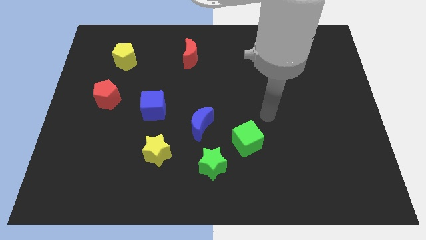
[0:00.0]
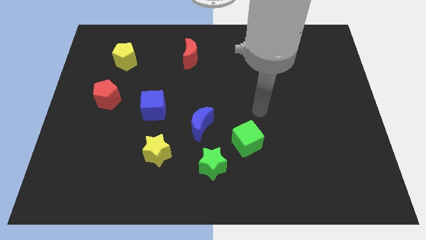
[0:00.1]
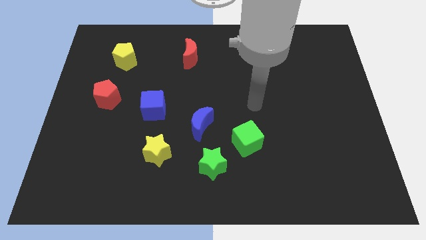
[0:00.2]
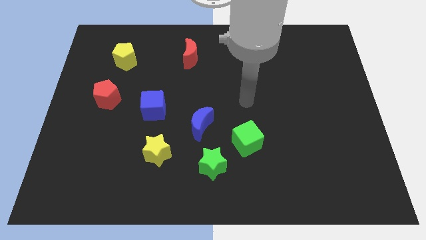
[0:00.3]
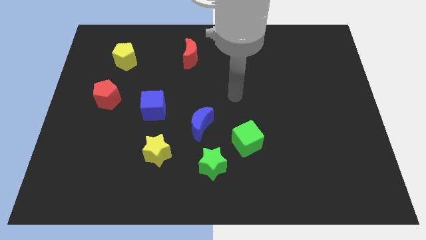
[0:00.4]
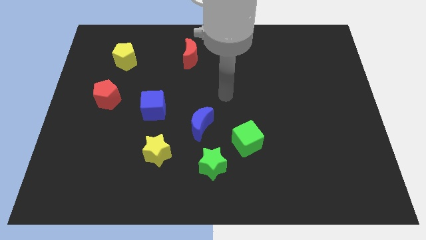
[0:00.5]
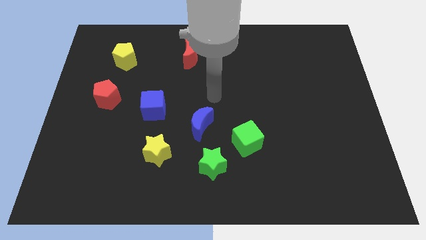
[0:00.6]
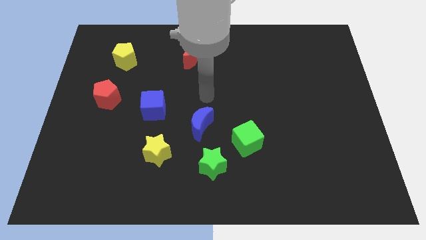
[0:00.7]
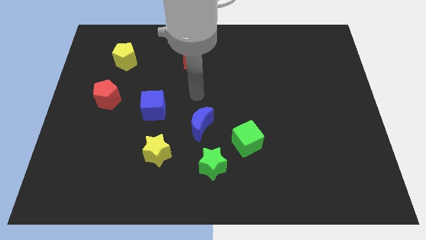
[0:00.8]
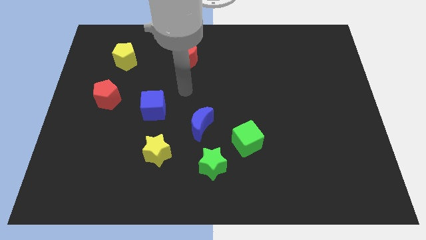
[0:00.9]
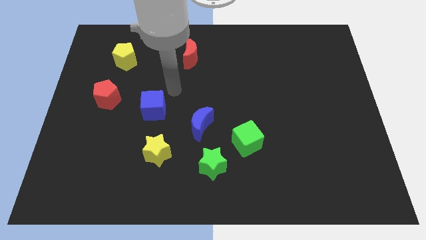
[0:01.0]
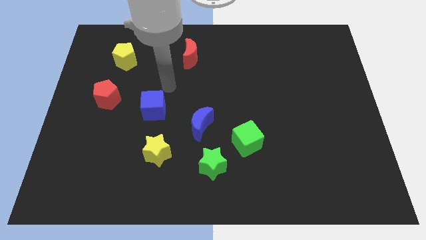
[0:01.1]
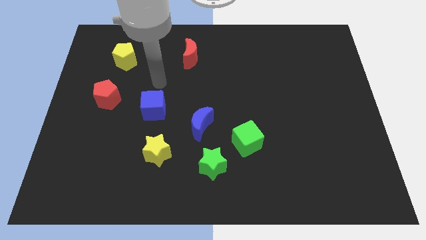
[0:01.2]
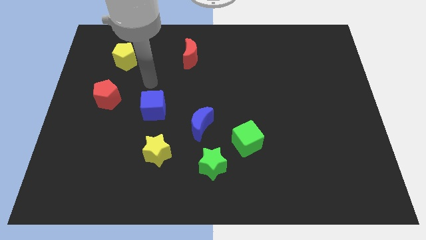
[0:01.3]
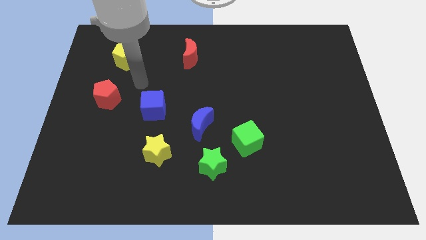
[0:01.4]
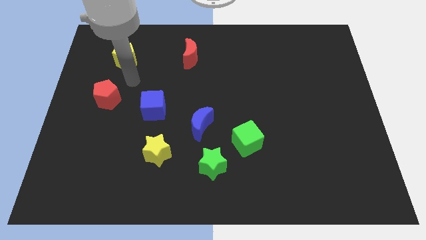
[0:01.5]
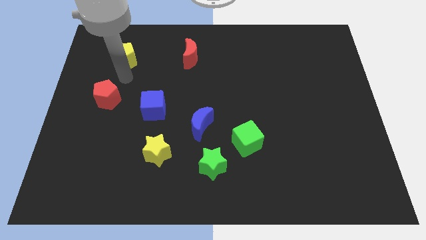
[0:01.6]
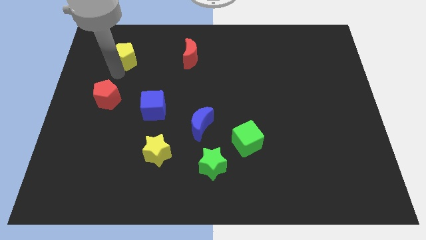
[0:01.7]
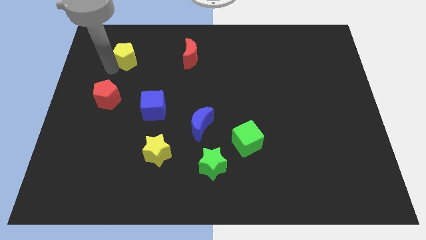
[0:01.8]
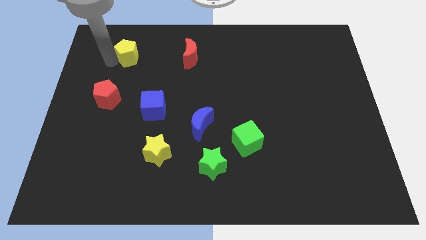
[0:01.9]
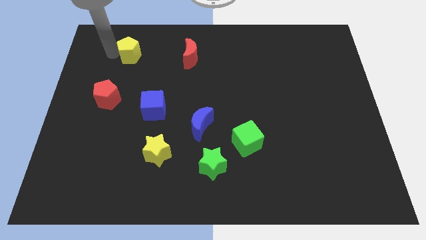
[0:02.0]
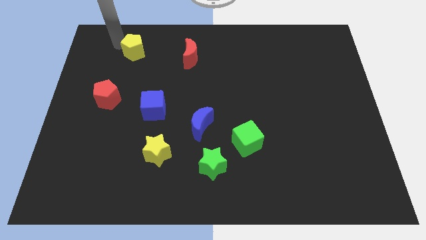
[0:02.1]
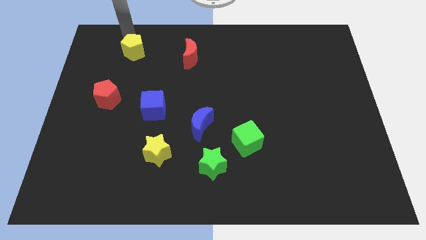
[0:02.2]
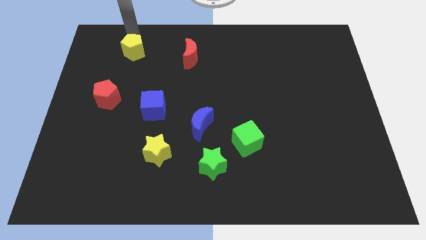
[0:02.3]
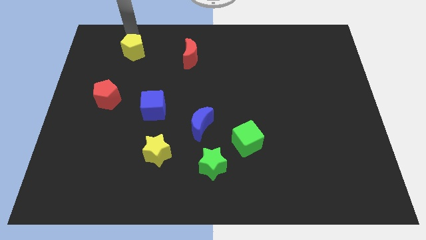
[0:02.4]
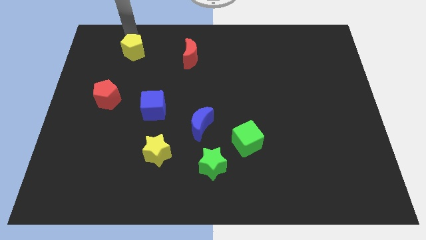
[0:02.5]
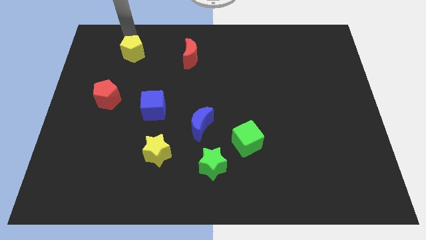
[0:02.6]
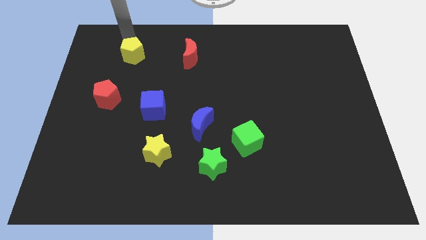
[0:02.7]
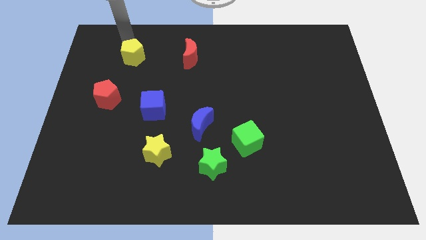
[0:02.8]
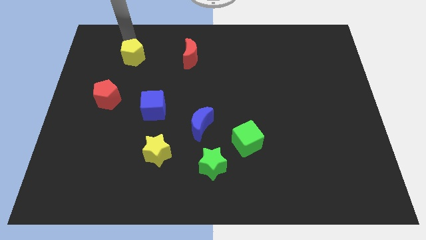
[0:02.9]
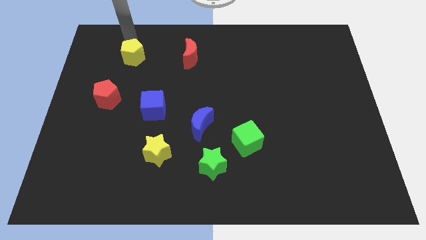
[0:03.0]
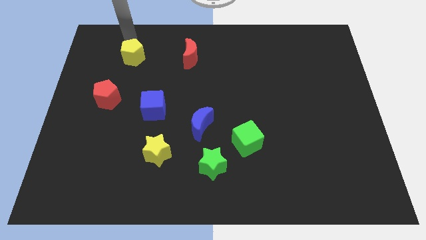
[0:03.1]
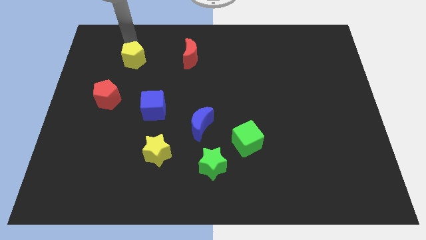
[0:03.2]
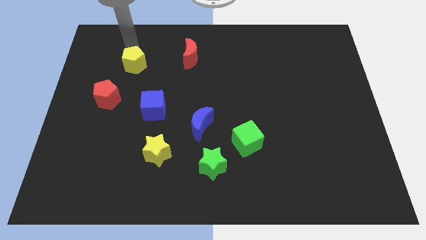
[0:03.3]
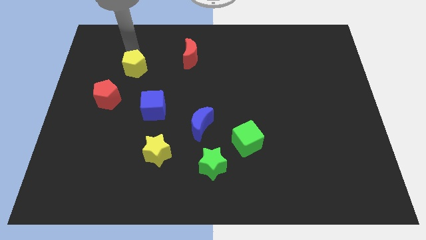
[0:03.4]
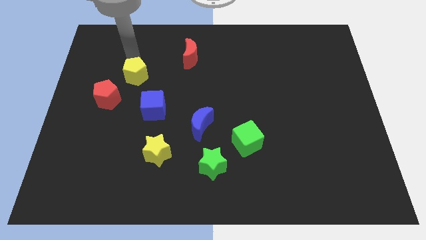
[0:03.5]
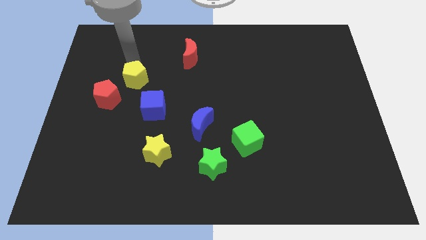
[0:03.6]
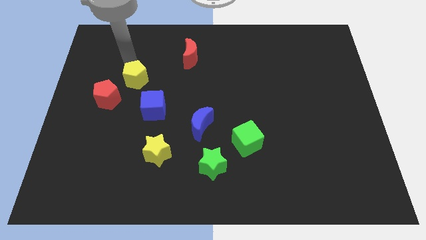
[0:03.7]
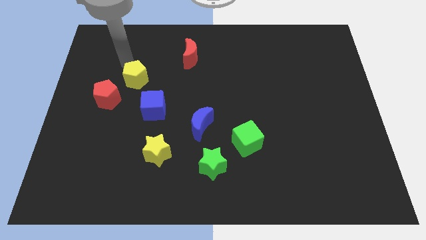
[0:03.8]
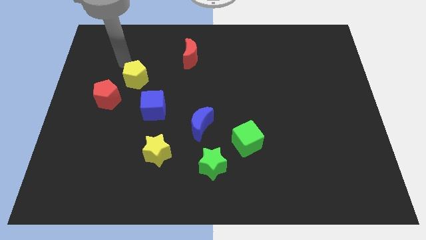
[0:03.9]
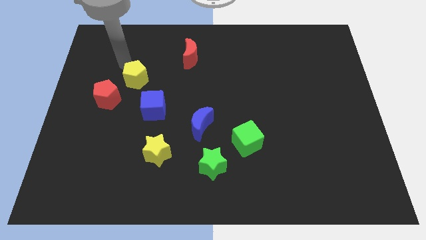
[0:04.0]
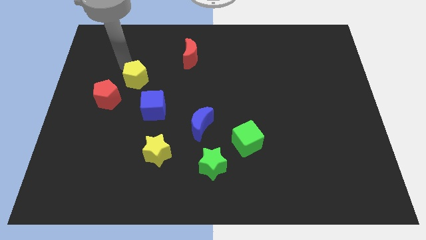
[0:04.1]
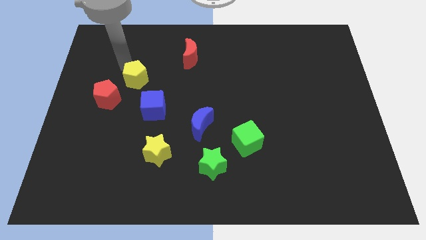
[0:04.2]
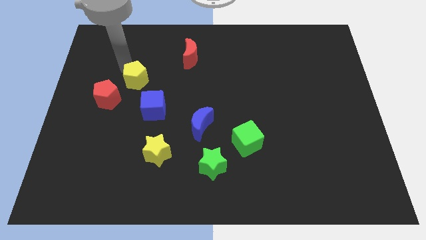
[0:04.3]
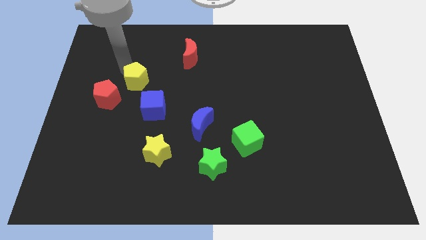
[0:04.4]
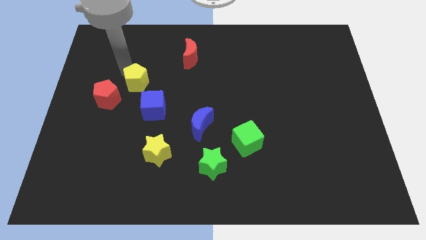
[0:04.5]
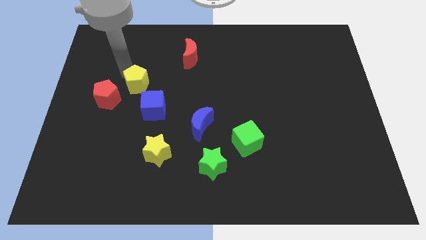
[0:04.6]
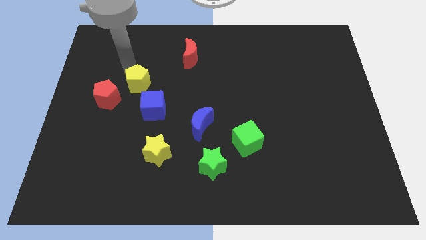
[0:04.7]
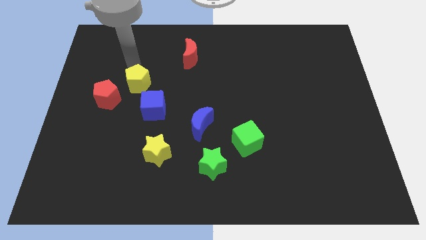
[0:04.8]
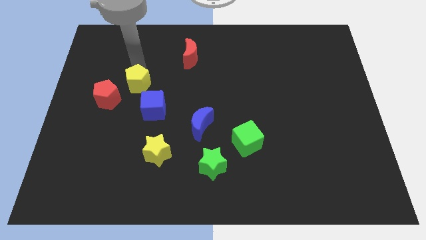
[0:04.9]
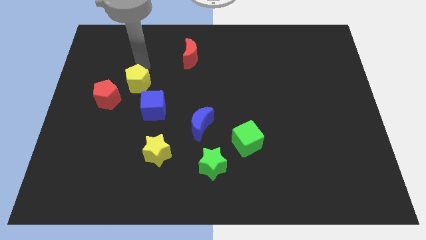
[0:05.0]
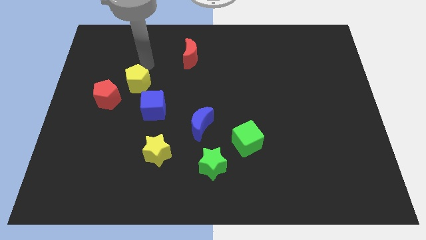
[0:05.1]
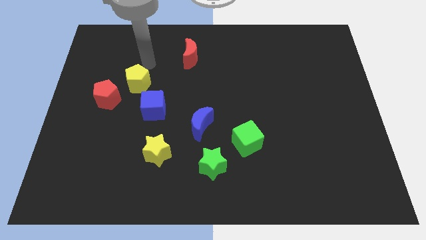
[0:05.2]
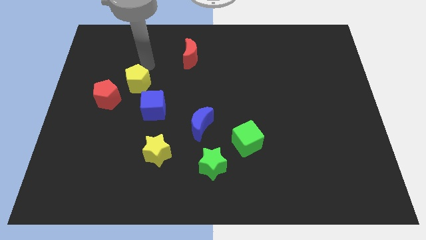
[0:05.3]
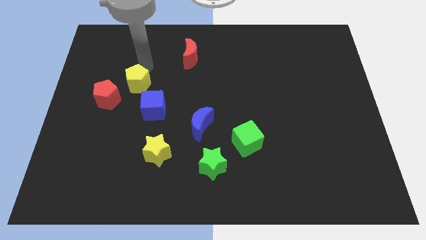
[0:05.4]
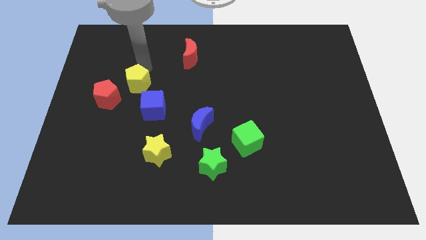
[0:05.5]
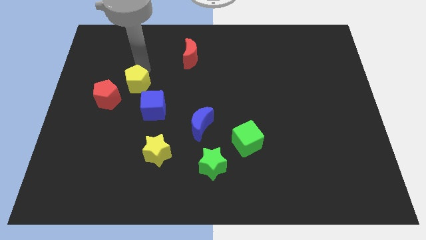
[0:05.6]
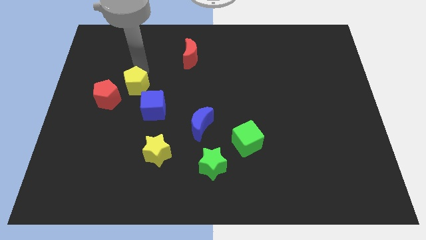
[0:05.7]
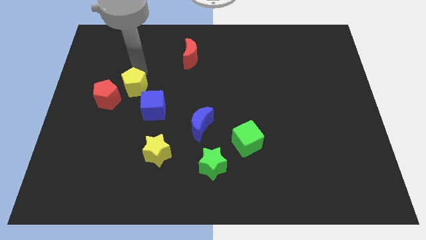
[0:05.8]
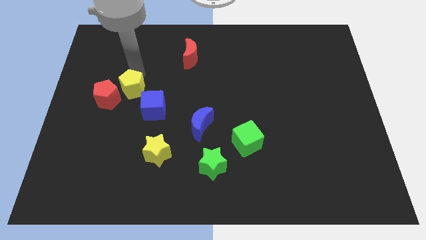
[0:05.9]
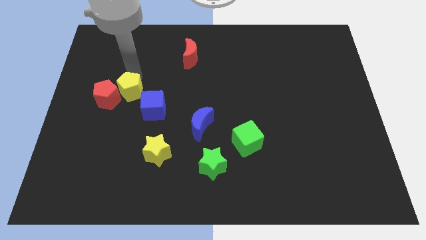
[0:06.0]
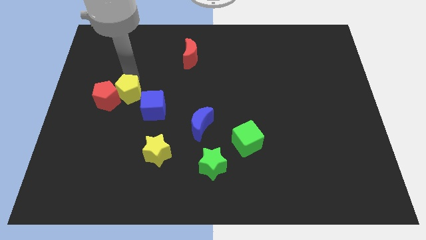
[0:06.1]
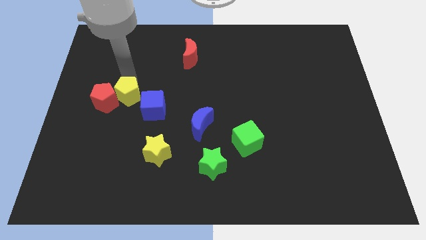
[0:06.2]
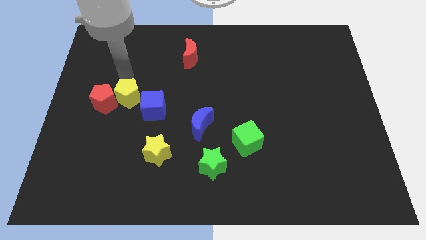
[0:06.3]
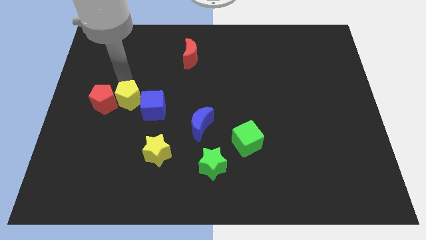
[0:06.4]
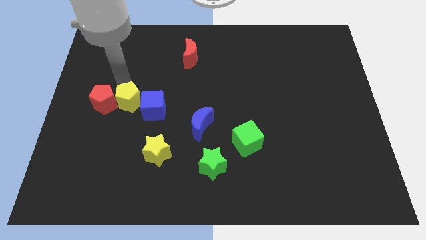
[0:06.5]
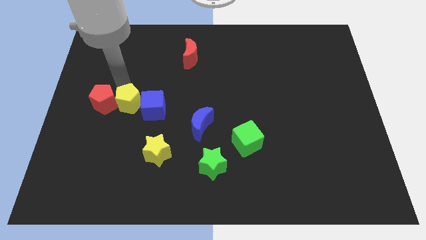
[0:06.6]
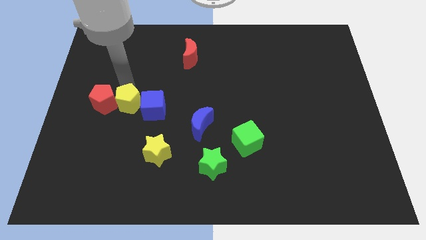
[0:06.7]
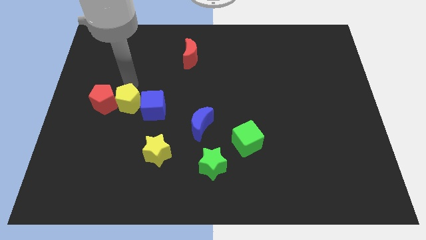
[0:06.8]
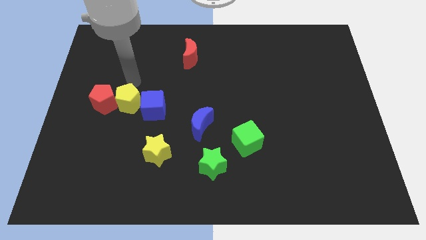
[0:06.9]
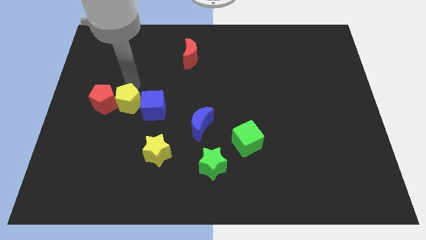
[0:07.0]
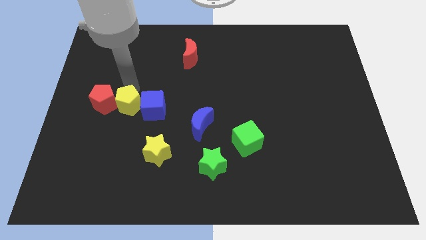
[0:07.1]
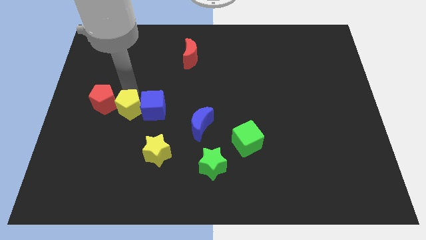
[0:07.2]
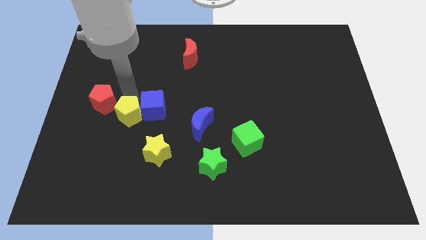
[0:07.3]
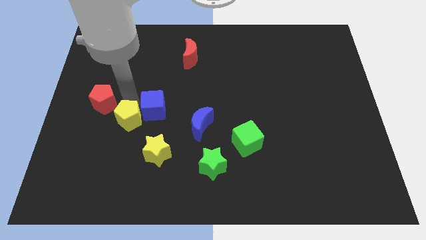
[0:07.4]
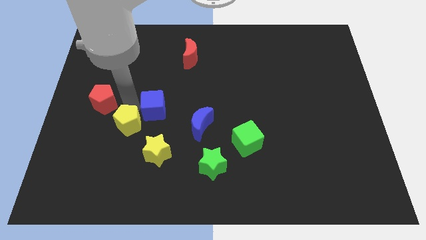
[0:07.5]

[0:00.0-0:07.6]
slide the yellow pentagon downwards

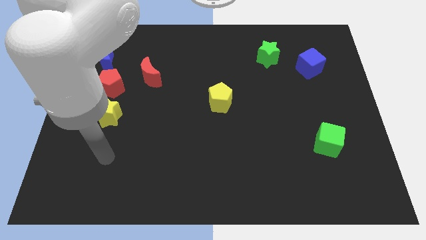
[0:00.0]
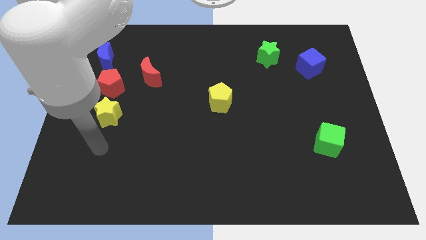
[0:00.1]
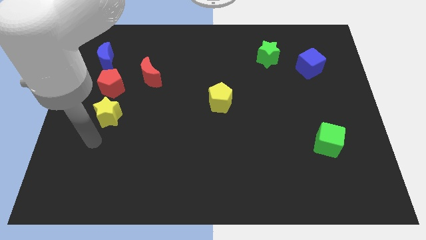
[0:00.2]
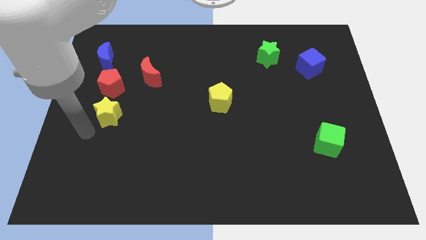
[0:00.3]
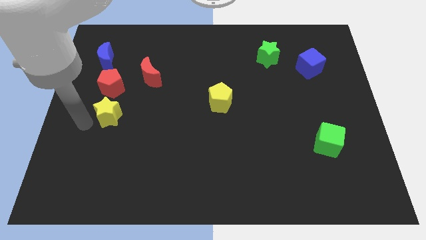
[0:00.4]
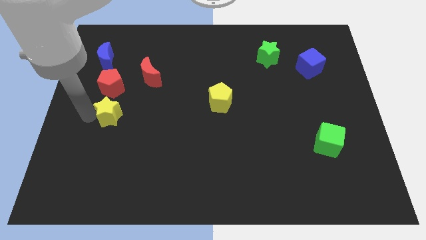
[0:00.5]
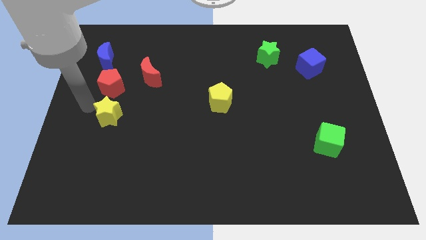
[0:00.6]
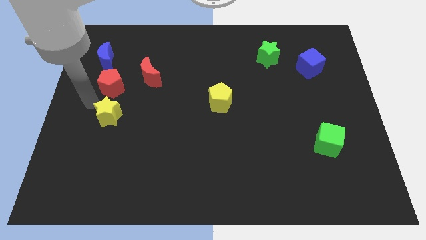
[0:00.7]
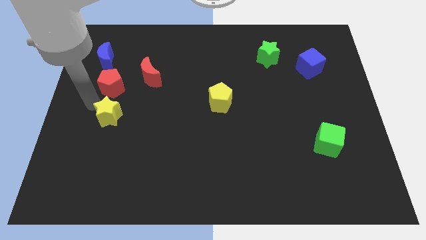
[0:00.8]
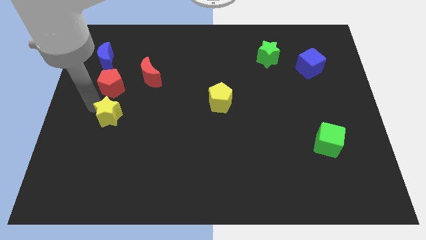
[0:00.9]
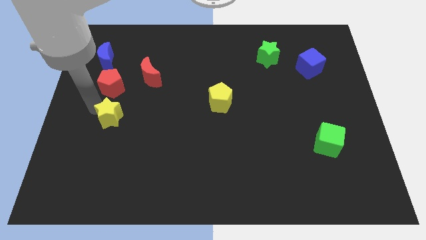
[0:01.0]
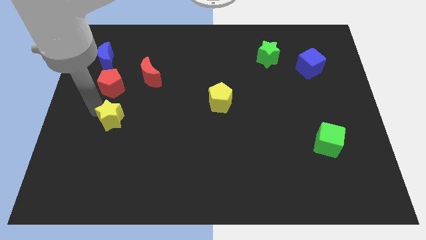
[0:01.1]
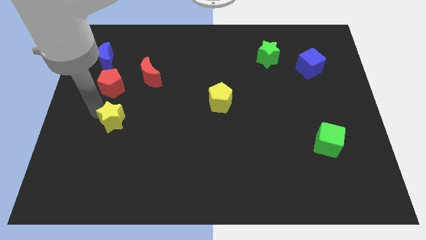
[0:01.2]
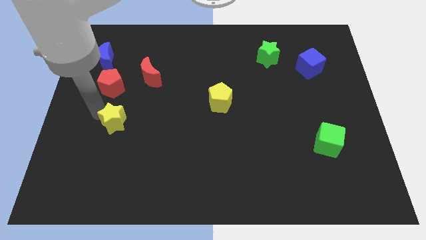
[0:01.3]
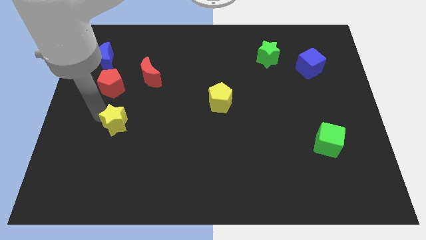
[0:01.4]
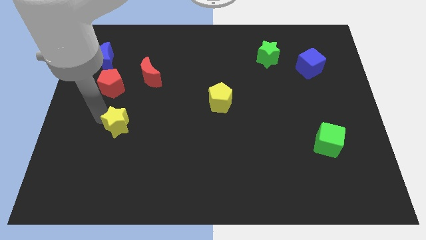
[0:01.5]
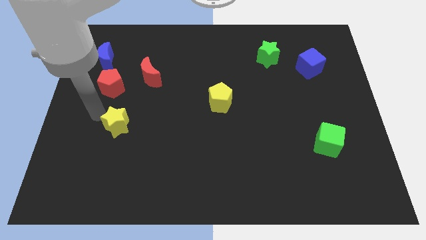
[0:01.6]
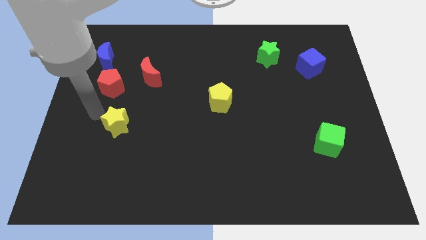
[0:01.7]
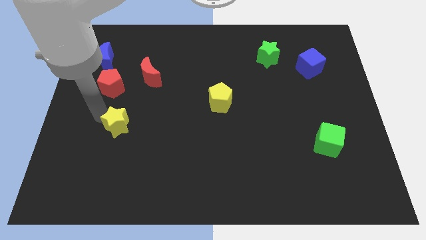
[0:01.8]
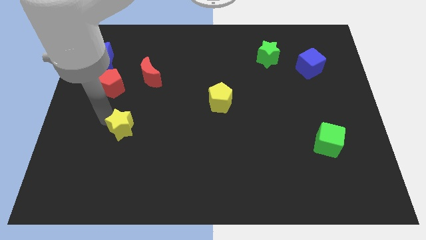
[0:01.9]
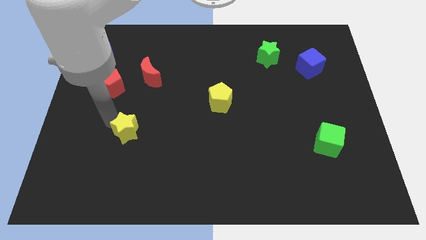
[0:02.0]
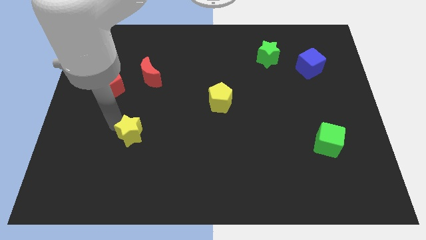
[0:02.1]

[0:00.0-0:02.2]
push the yellow star a bit downwards and then to the right
